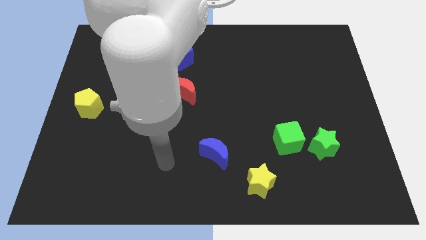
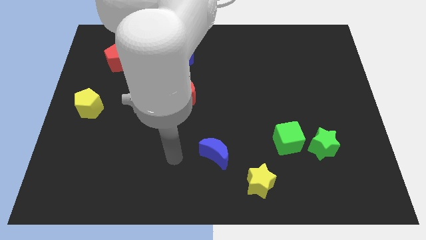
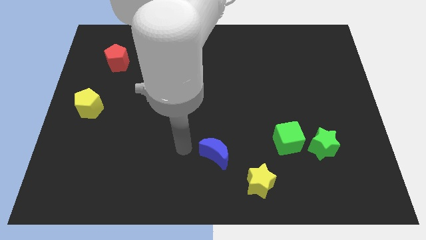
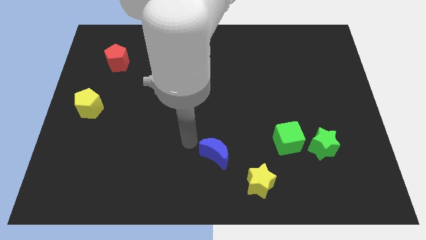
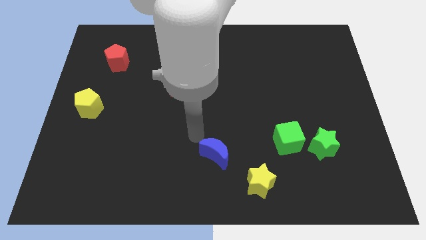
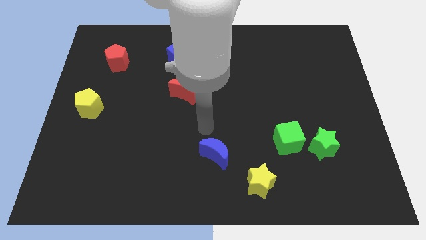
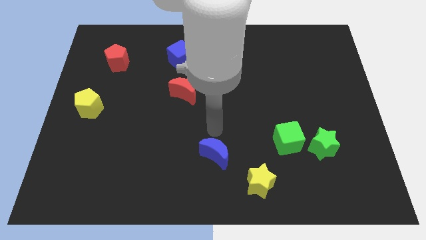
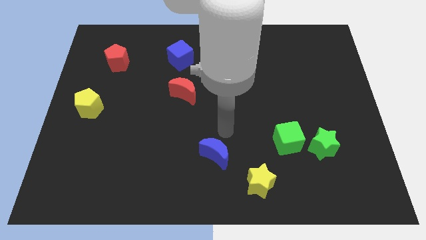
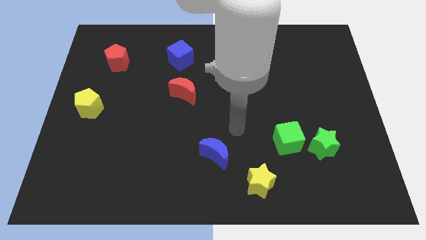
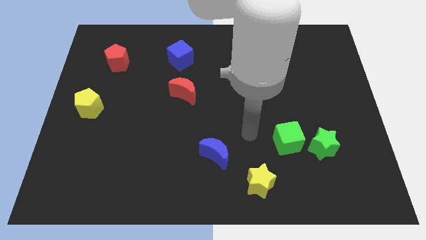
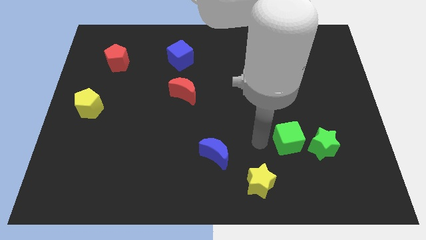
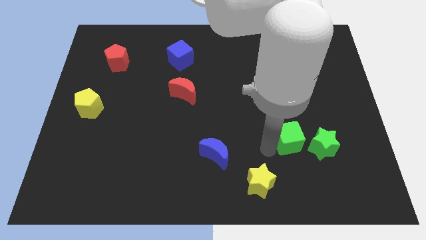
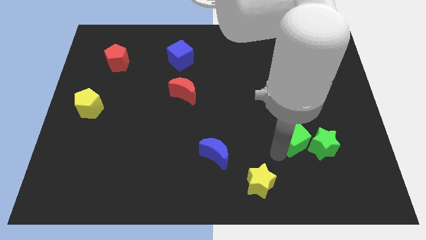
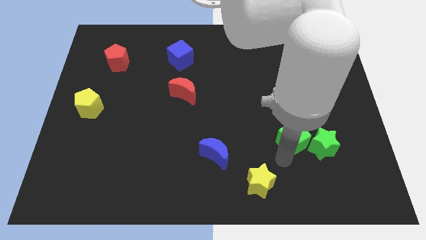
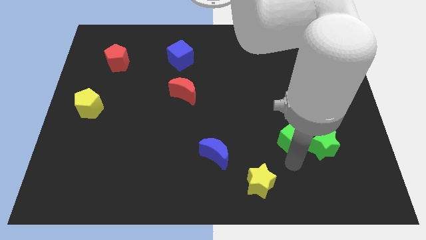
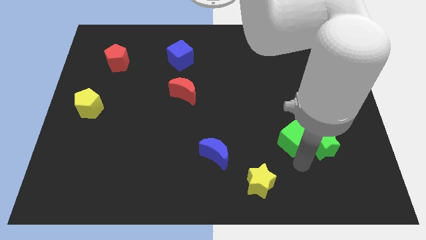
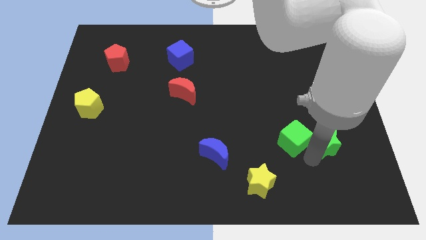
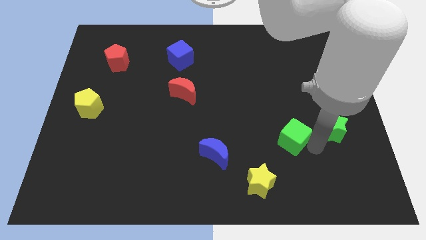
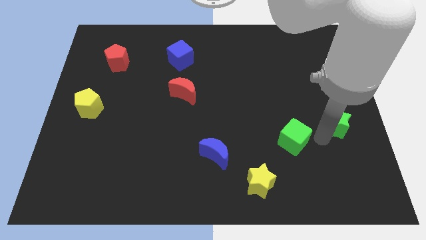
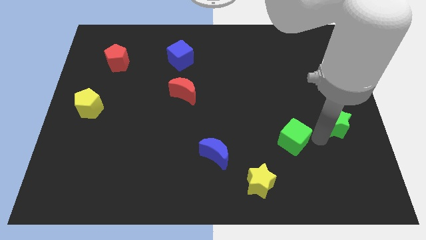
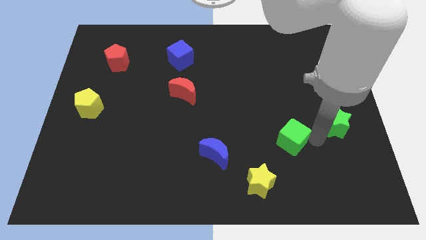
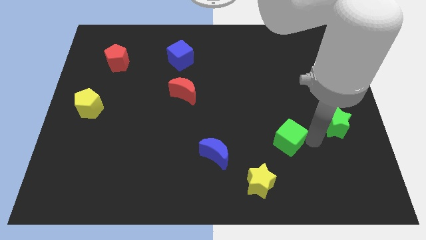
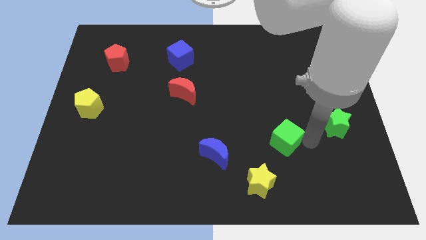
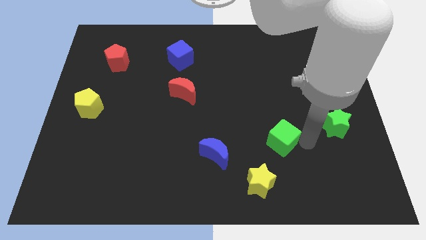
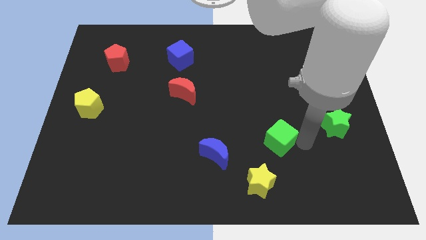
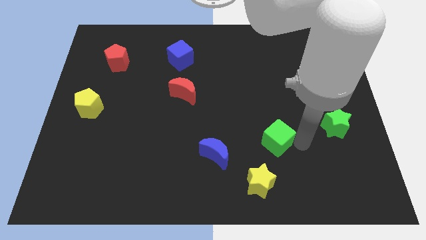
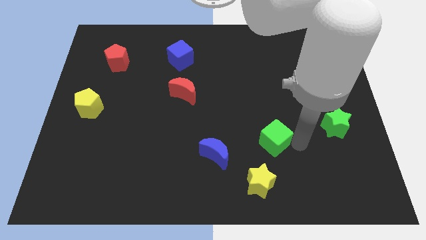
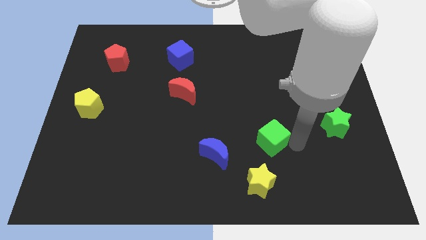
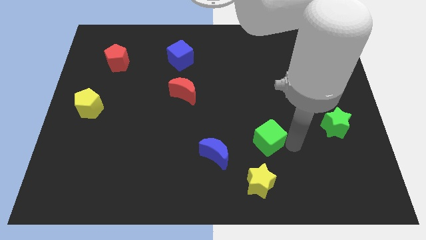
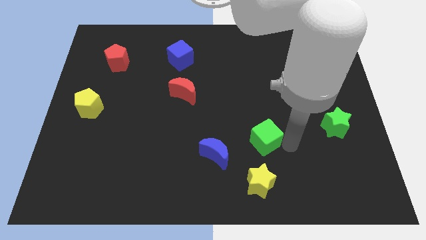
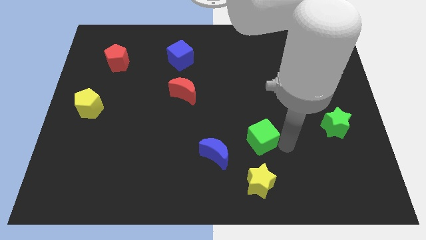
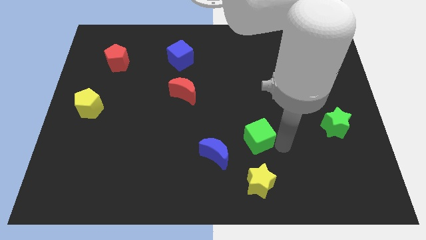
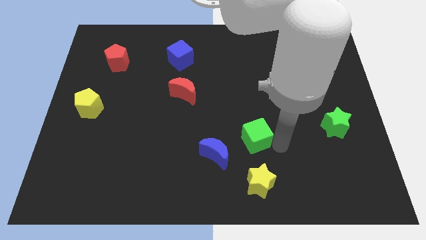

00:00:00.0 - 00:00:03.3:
slide the green cube to the left somewhat

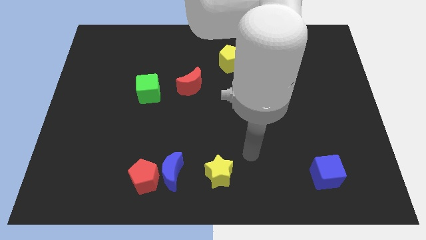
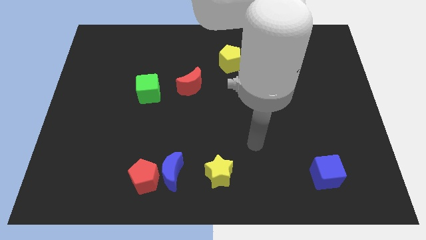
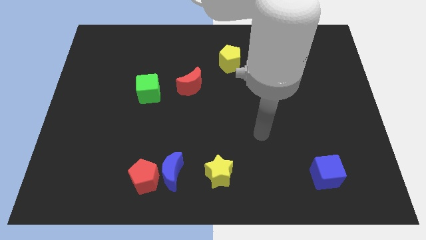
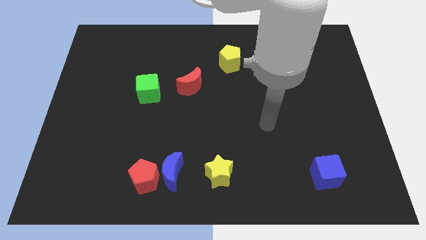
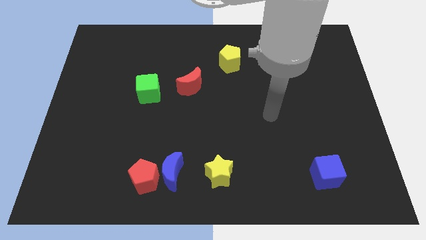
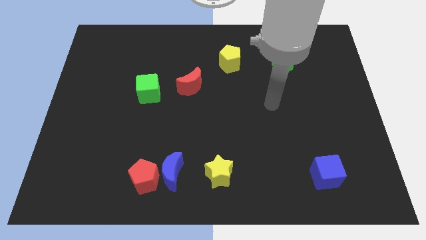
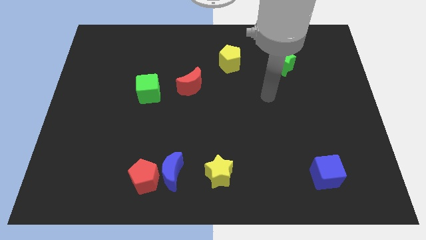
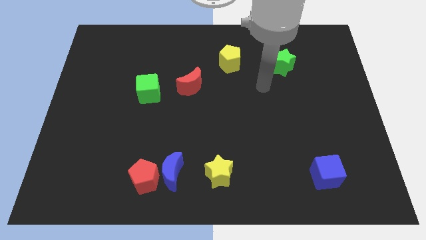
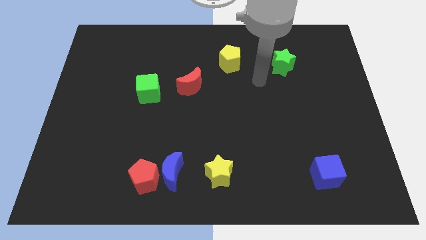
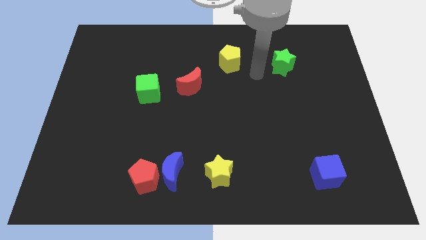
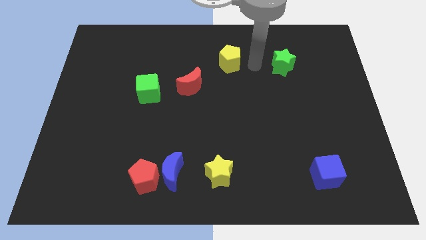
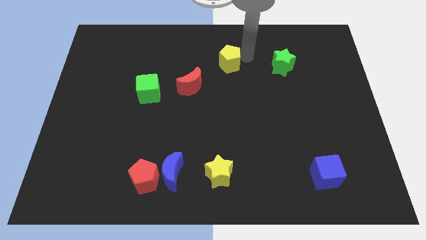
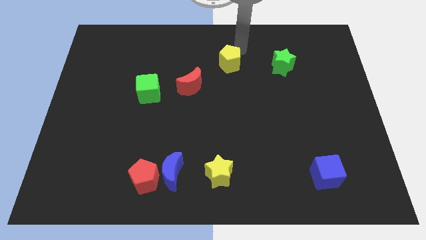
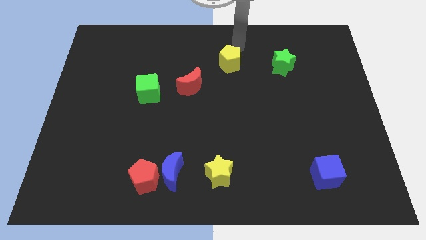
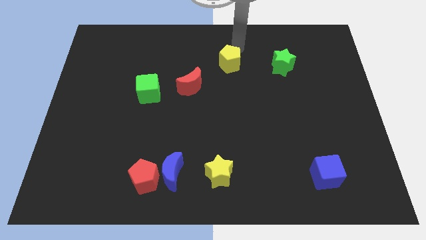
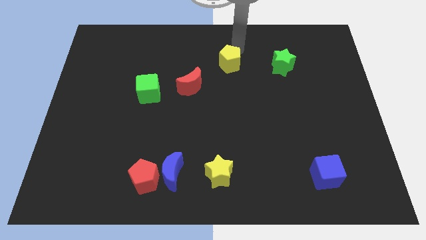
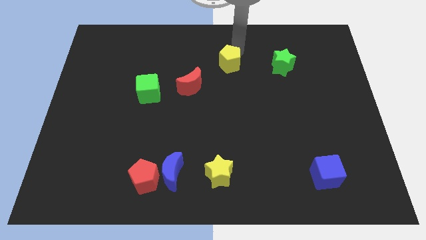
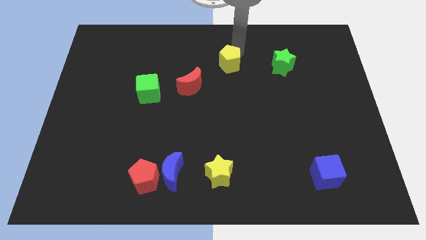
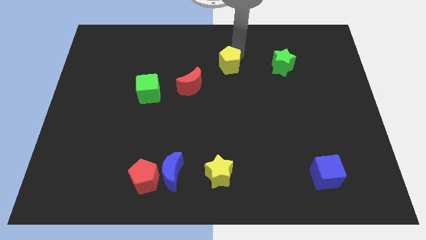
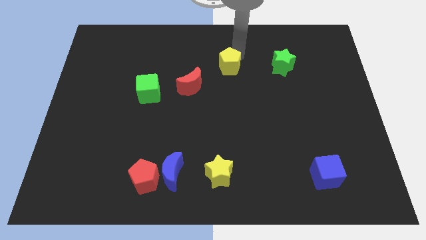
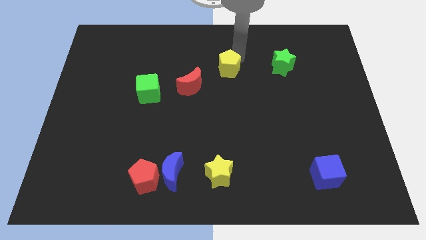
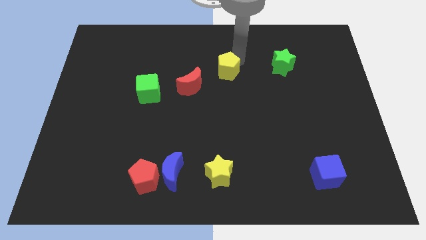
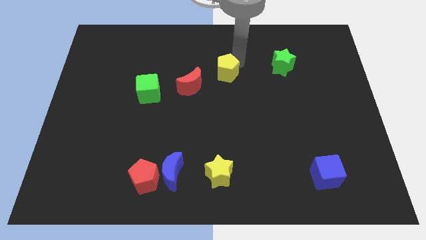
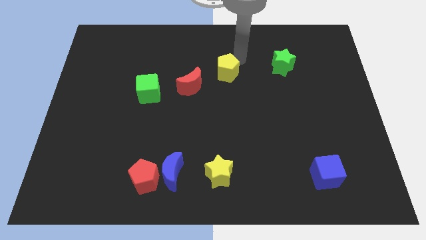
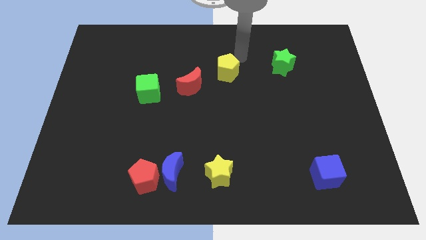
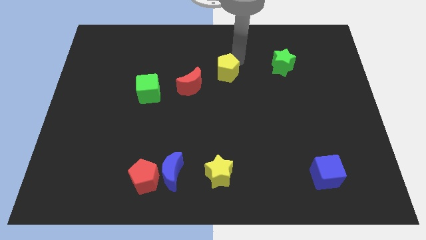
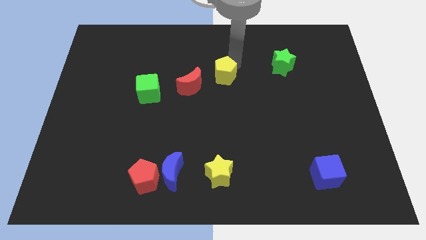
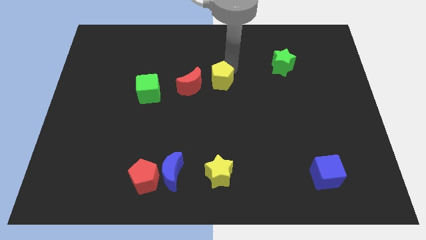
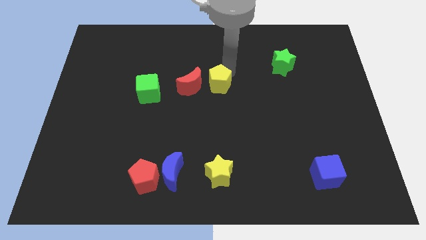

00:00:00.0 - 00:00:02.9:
move the yellow pentagon a bit downwards and left diagonally

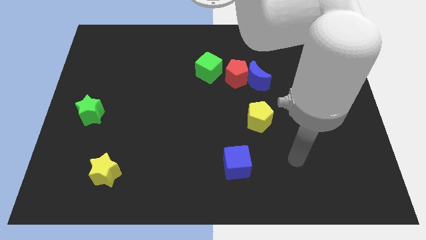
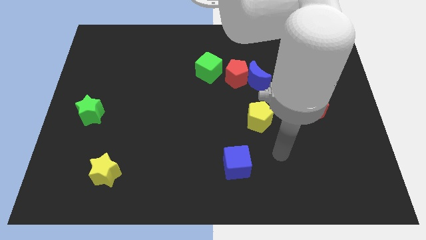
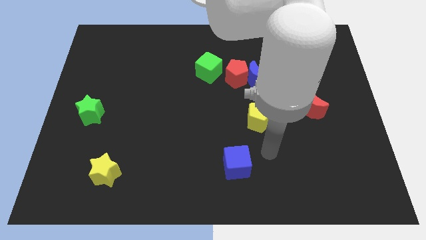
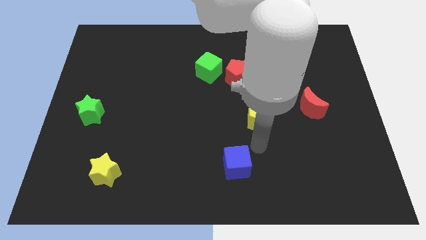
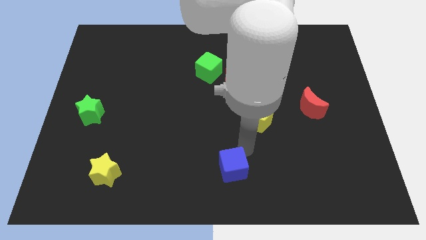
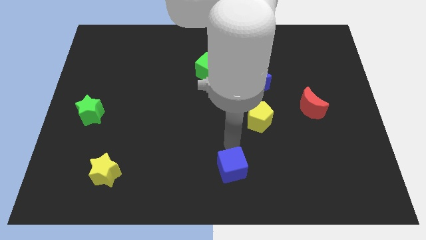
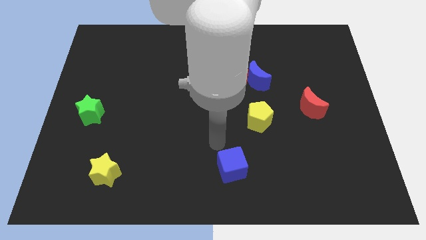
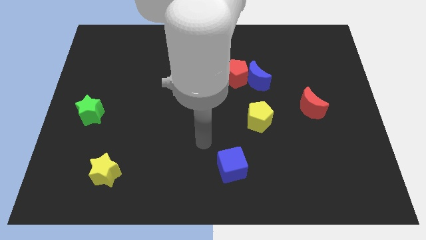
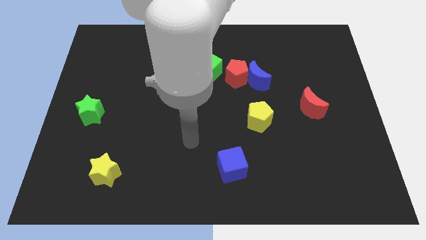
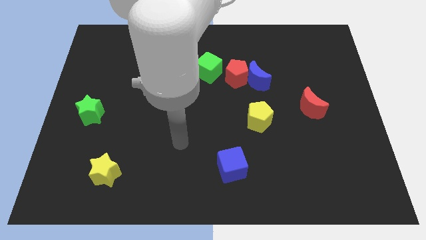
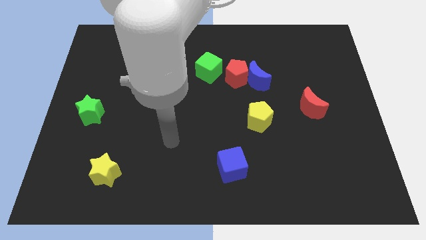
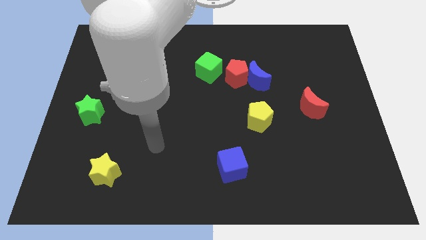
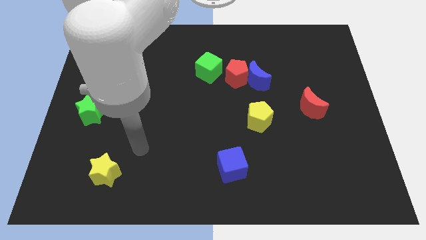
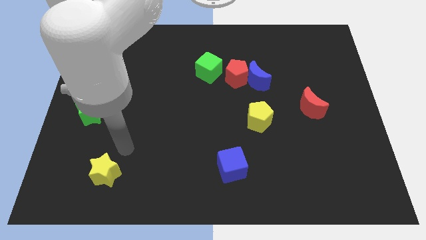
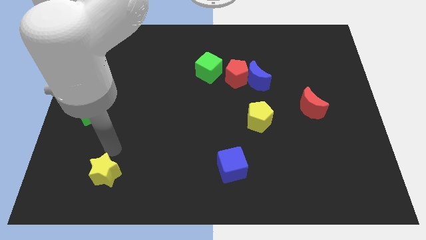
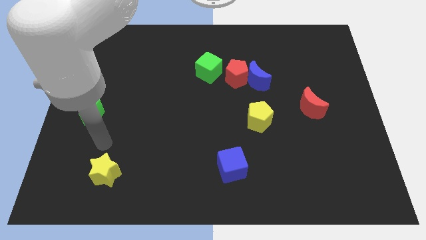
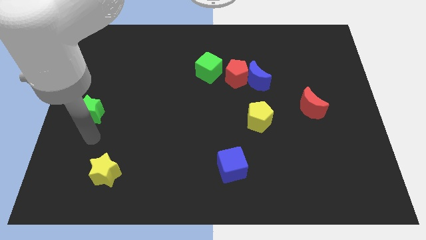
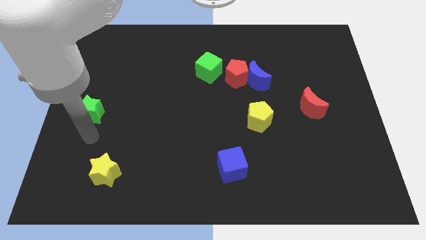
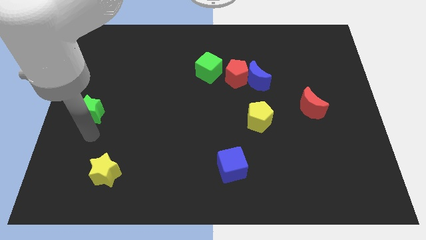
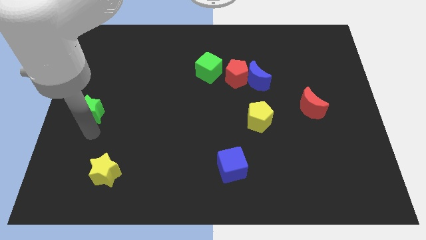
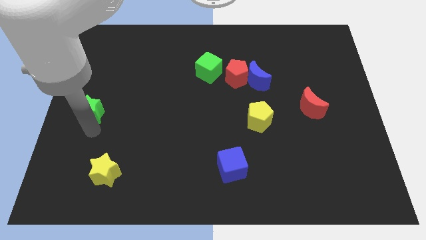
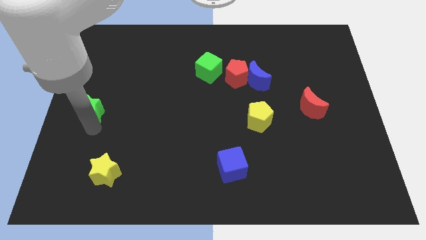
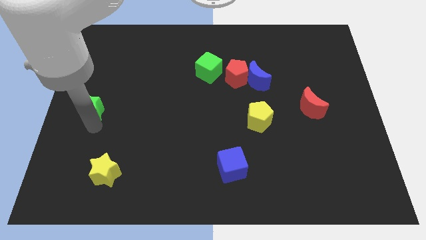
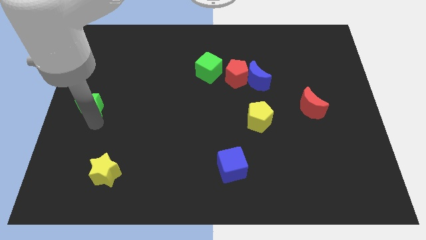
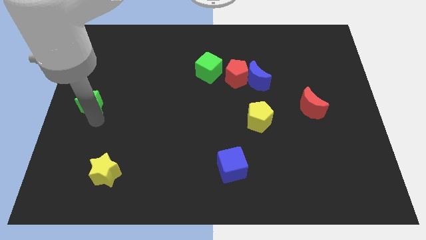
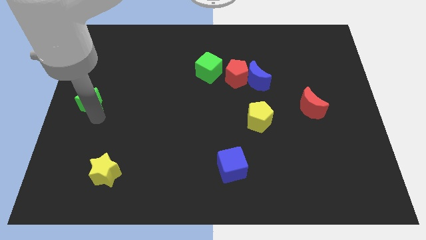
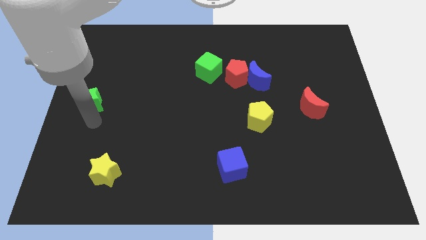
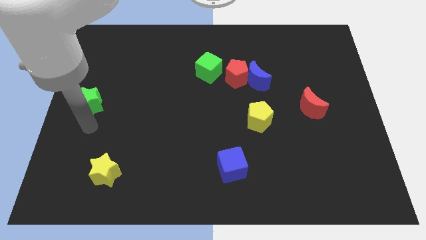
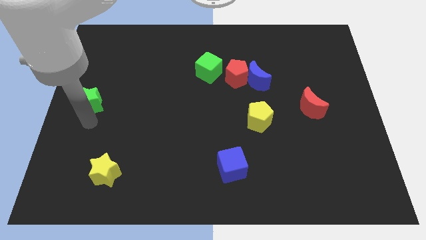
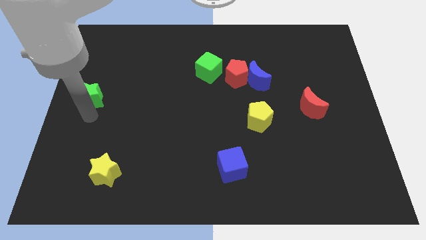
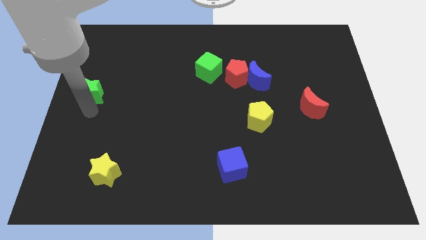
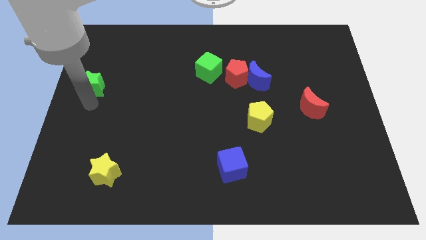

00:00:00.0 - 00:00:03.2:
move the green star somewhat up
